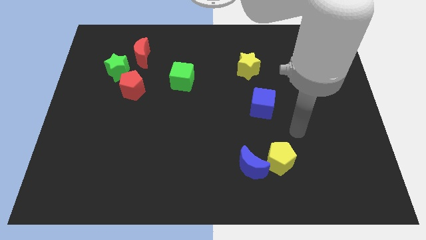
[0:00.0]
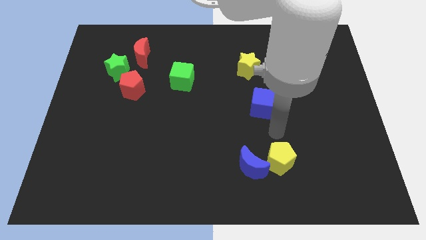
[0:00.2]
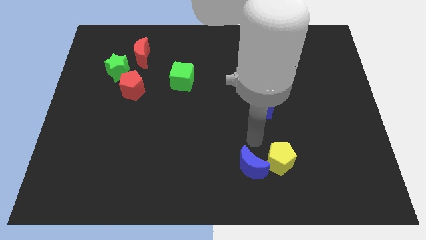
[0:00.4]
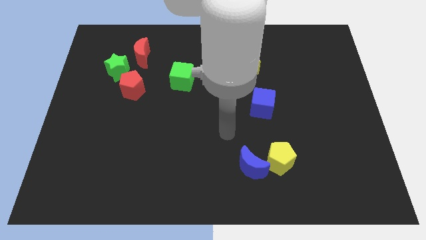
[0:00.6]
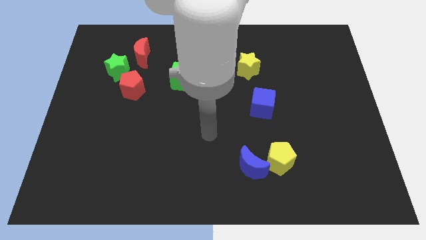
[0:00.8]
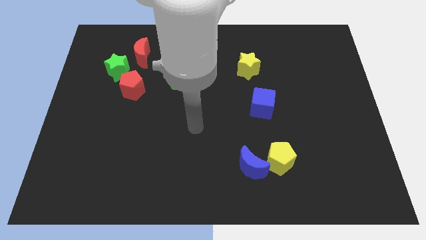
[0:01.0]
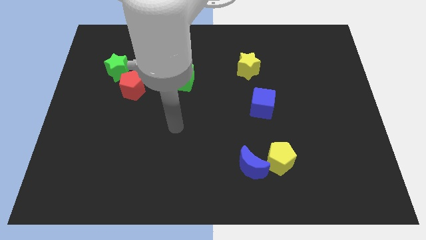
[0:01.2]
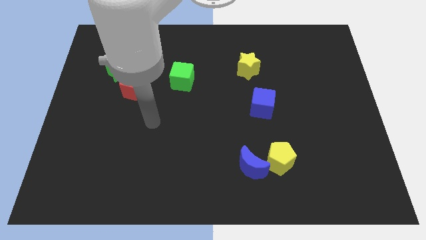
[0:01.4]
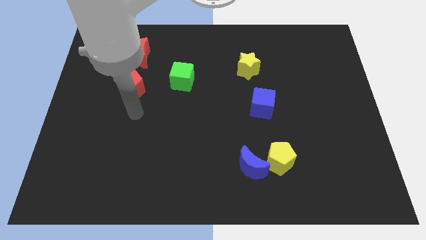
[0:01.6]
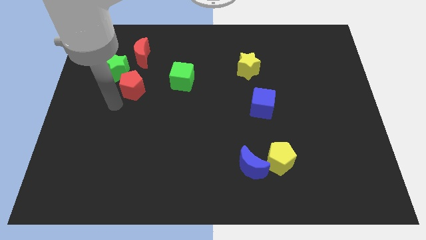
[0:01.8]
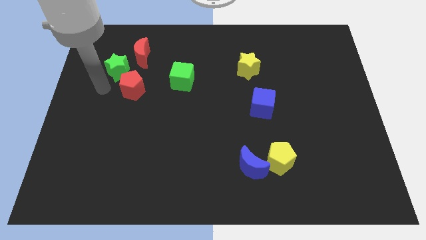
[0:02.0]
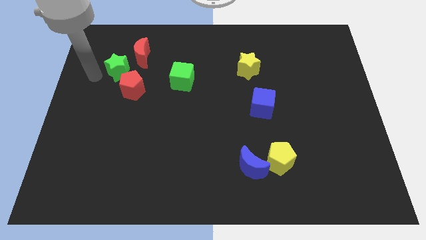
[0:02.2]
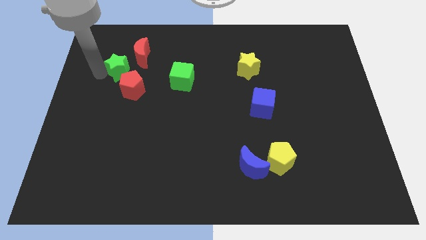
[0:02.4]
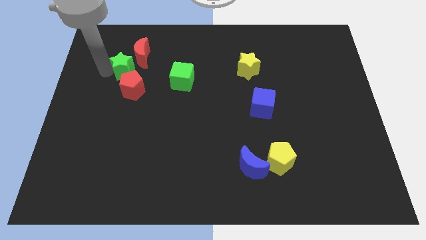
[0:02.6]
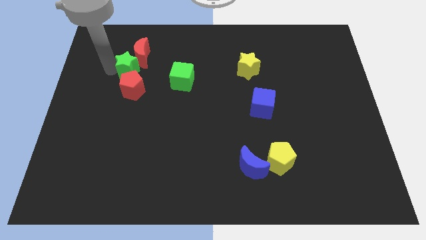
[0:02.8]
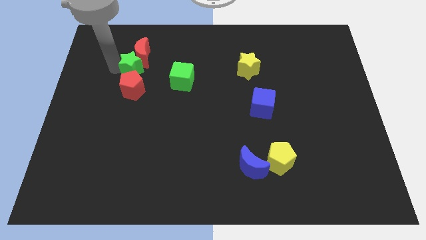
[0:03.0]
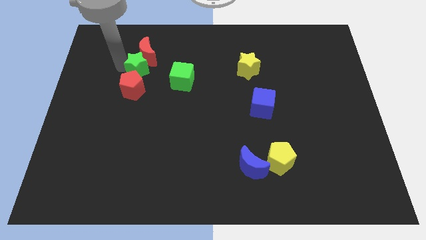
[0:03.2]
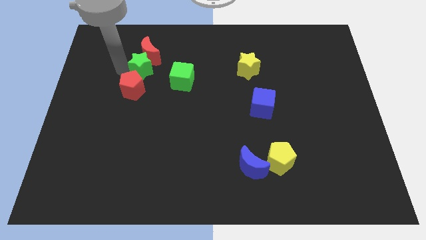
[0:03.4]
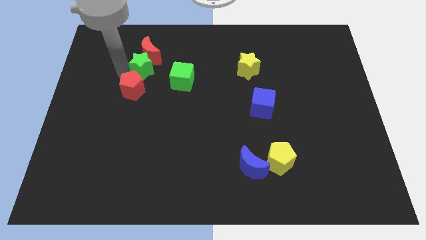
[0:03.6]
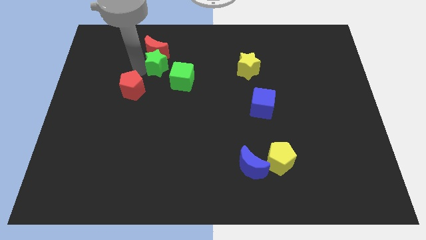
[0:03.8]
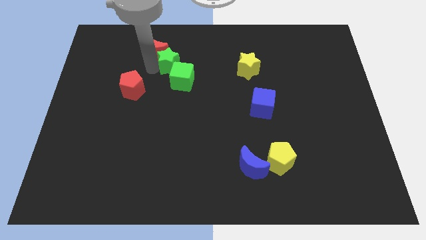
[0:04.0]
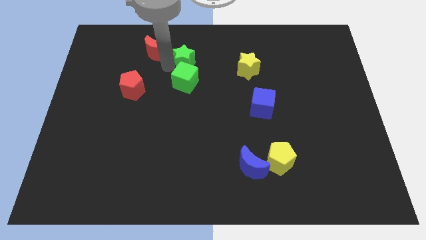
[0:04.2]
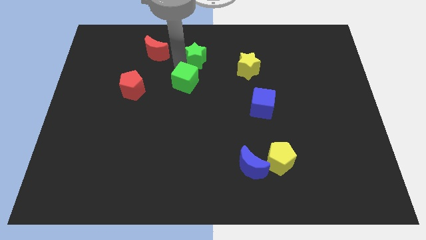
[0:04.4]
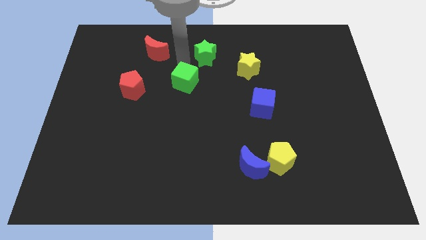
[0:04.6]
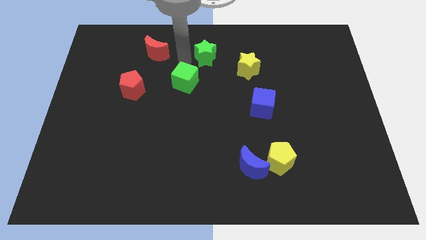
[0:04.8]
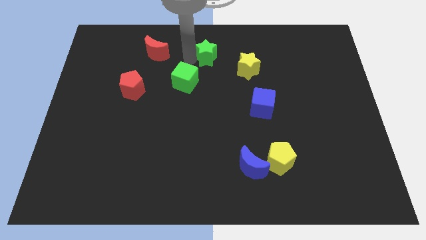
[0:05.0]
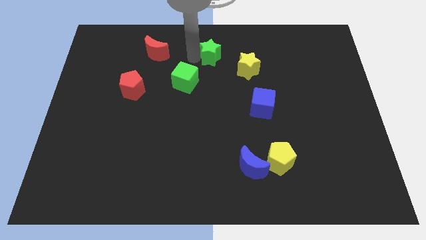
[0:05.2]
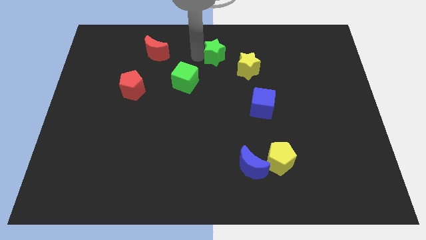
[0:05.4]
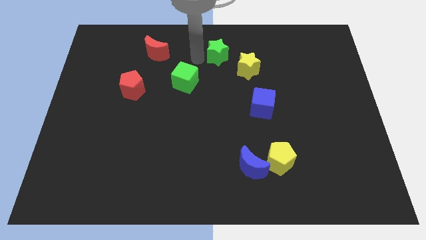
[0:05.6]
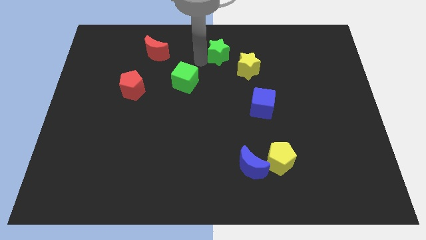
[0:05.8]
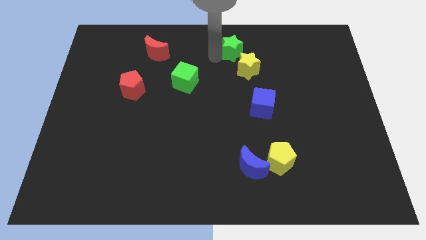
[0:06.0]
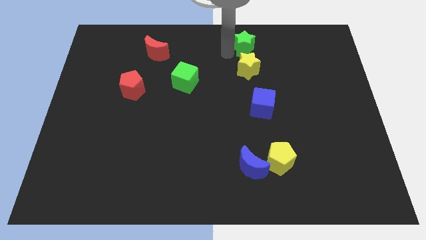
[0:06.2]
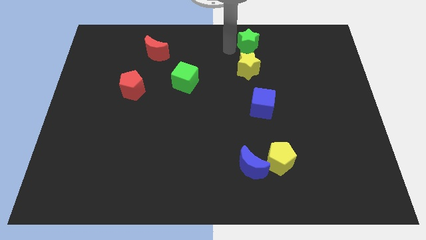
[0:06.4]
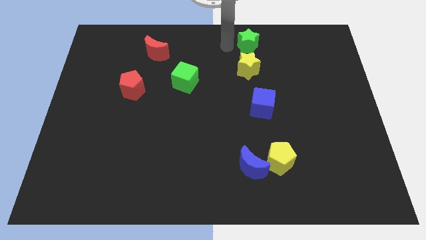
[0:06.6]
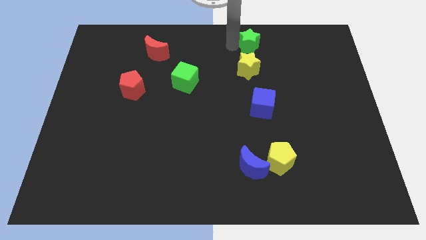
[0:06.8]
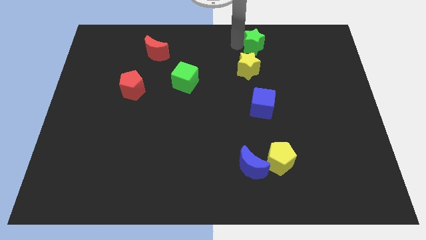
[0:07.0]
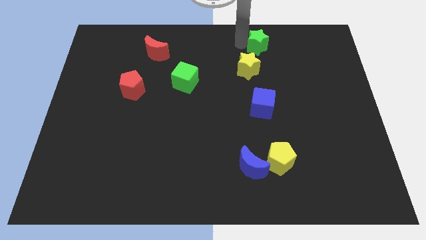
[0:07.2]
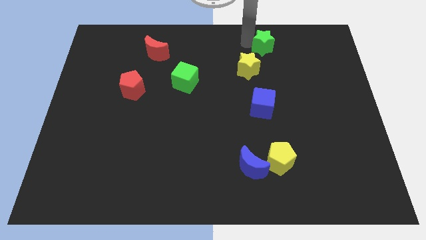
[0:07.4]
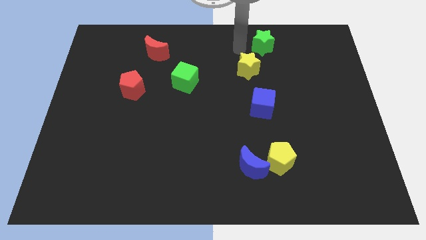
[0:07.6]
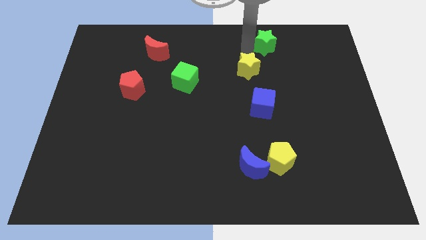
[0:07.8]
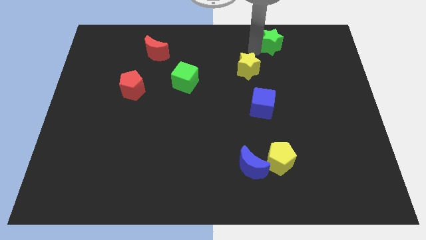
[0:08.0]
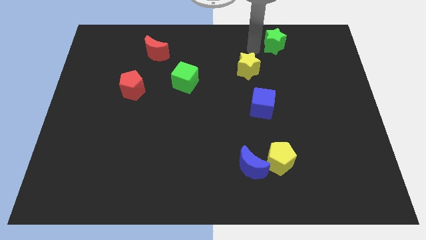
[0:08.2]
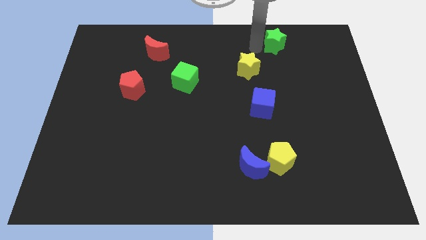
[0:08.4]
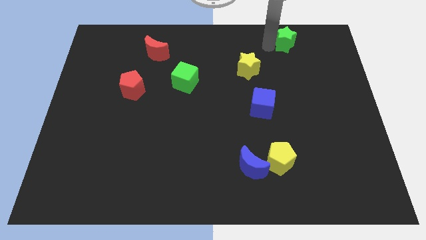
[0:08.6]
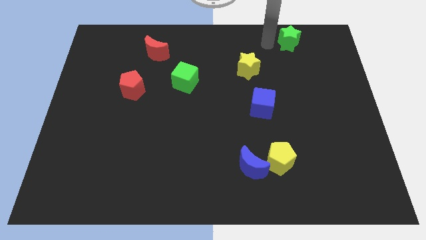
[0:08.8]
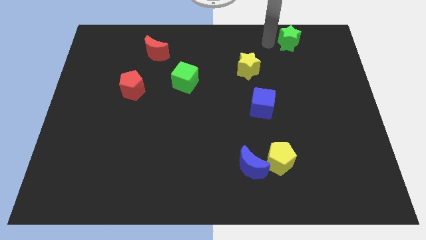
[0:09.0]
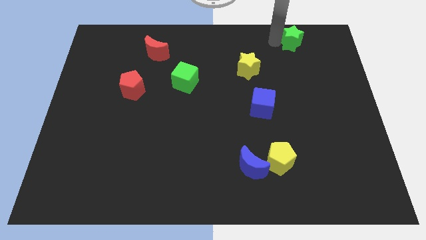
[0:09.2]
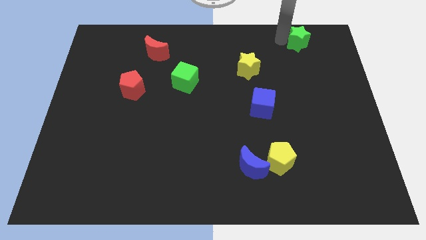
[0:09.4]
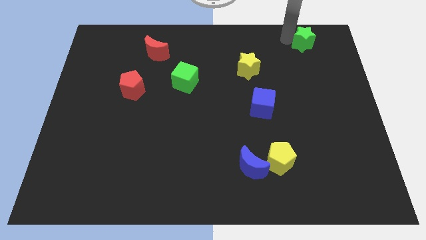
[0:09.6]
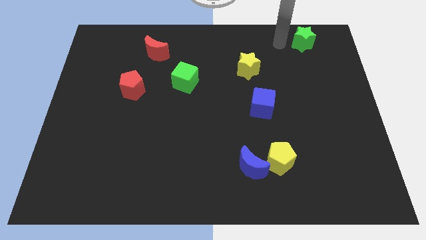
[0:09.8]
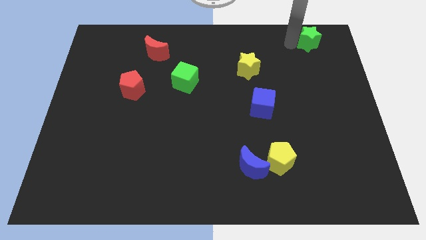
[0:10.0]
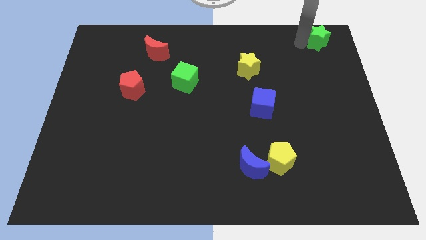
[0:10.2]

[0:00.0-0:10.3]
push the green star to the top right

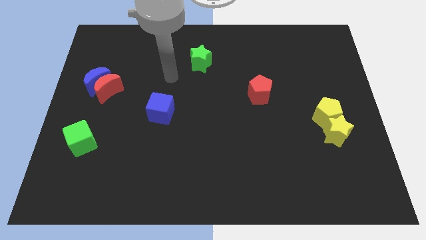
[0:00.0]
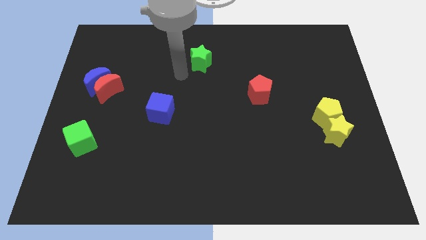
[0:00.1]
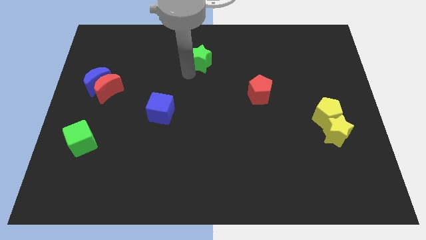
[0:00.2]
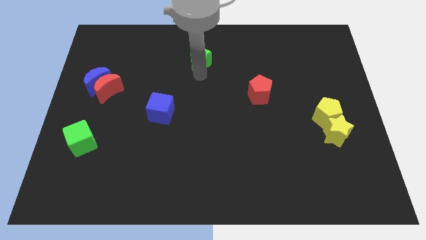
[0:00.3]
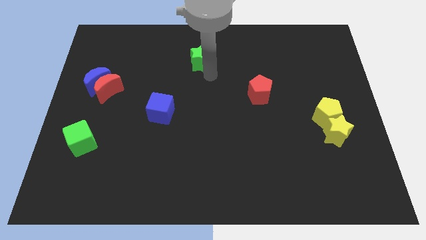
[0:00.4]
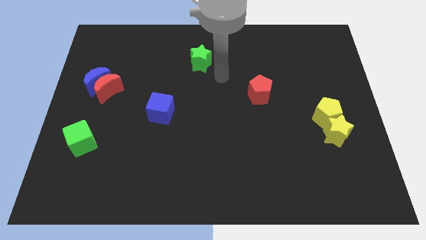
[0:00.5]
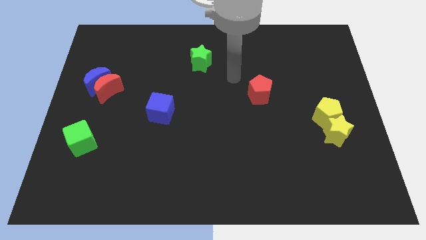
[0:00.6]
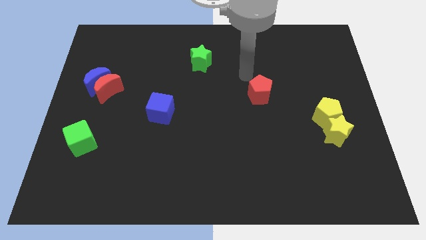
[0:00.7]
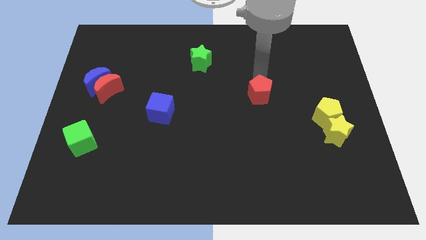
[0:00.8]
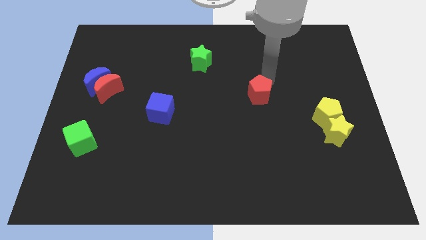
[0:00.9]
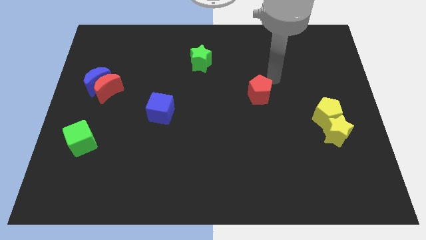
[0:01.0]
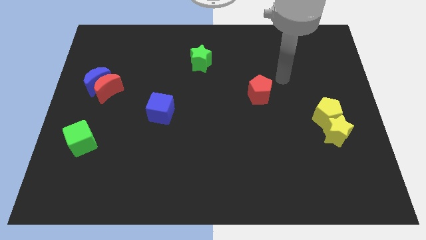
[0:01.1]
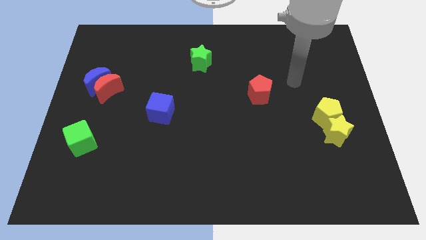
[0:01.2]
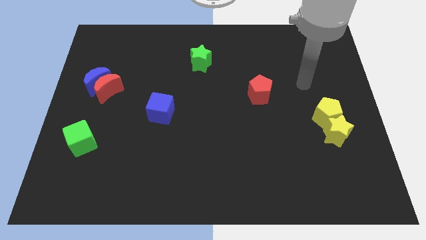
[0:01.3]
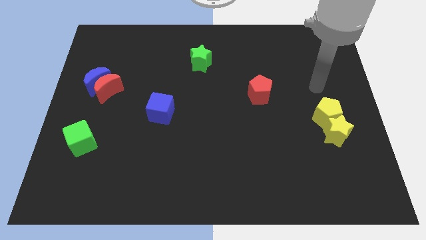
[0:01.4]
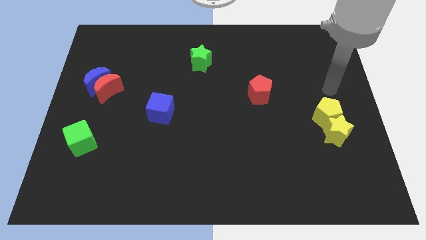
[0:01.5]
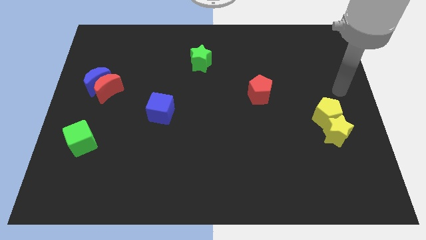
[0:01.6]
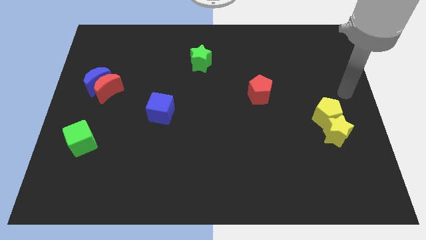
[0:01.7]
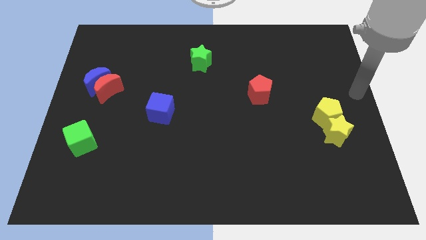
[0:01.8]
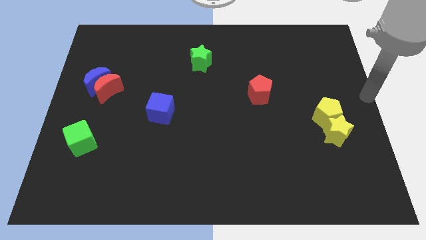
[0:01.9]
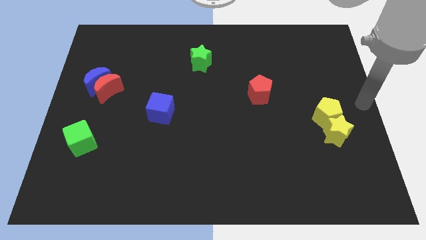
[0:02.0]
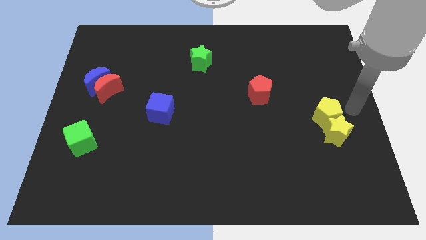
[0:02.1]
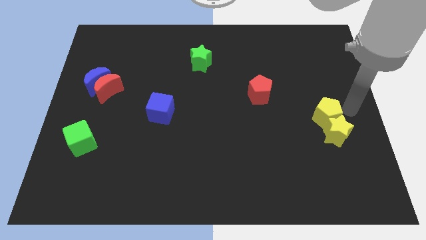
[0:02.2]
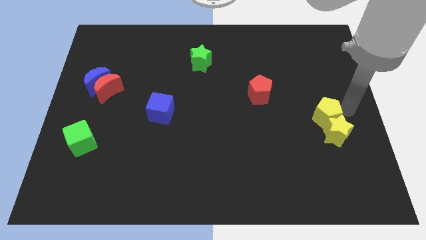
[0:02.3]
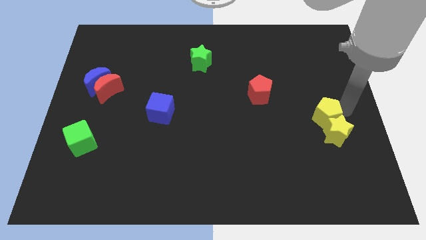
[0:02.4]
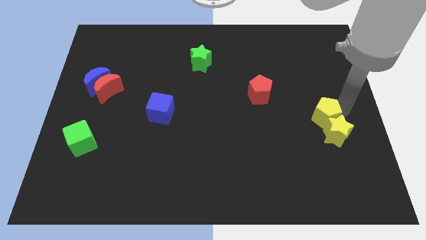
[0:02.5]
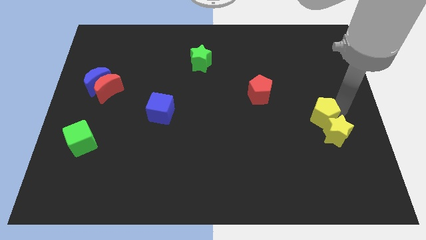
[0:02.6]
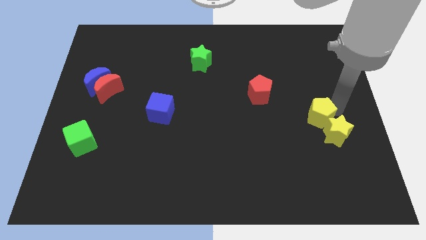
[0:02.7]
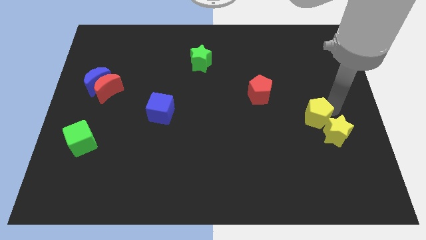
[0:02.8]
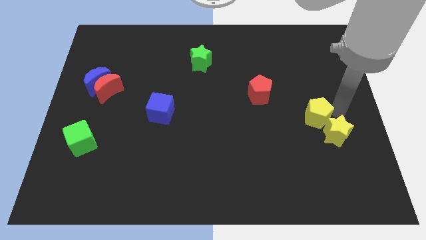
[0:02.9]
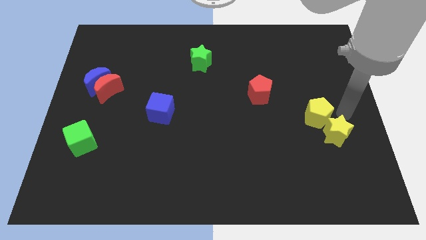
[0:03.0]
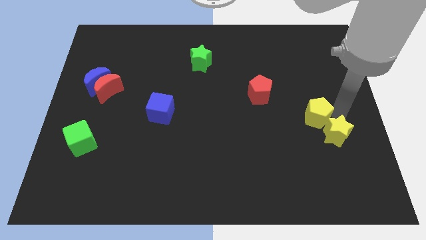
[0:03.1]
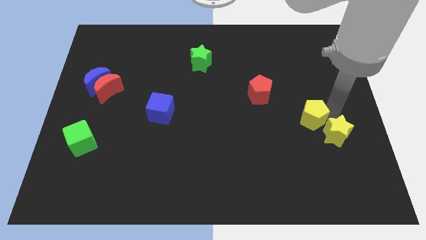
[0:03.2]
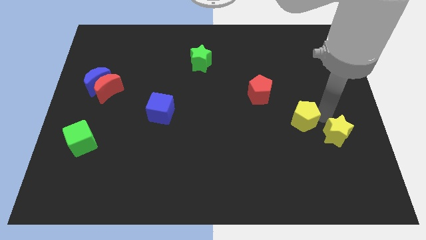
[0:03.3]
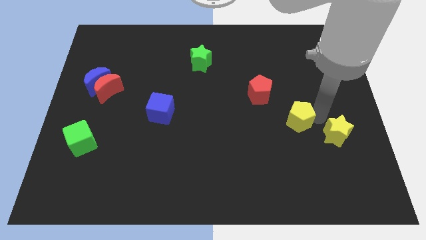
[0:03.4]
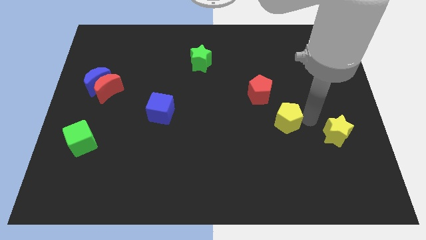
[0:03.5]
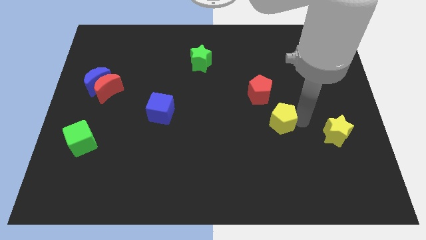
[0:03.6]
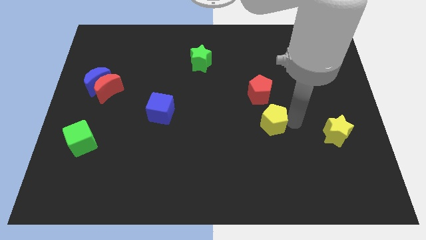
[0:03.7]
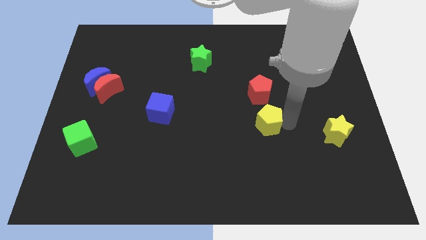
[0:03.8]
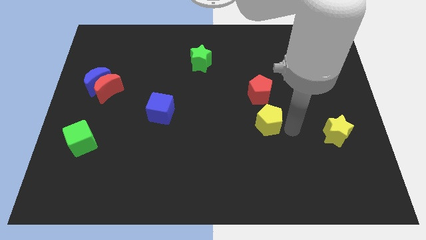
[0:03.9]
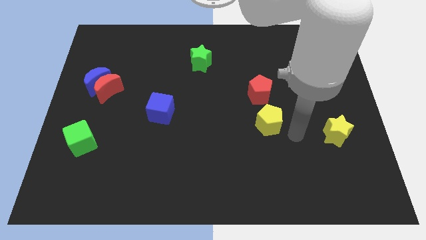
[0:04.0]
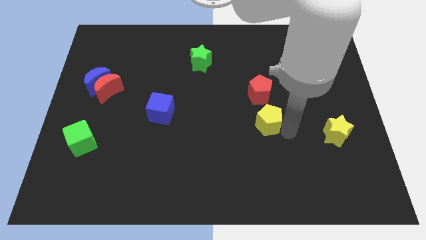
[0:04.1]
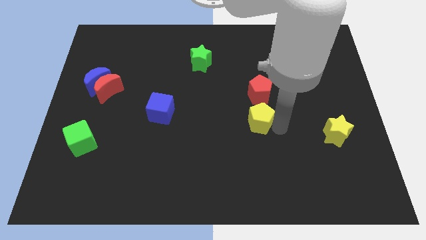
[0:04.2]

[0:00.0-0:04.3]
push the yellow pentagon to the center
